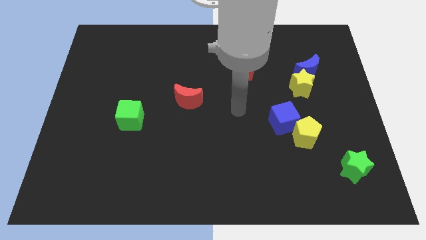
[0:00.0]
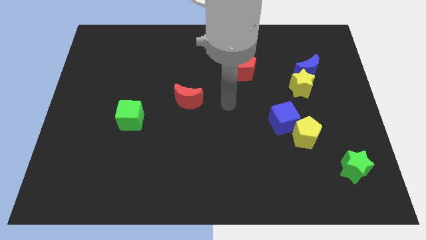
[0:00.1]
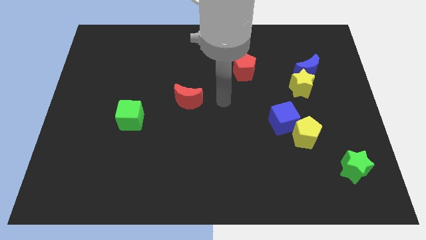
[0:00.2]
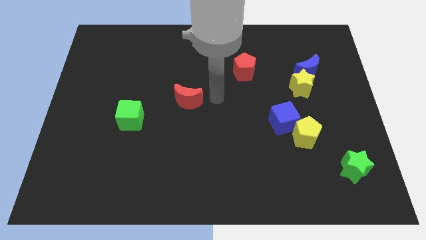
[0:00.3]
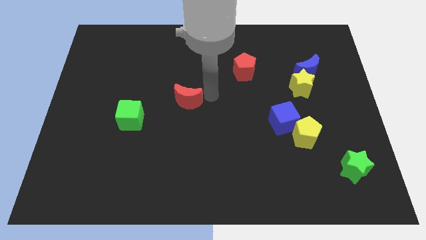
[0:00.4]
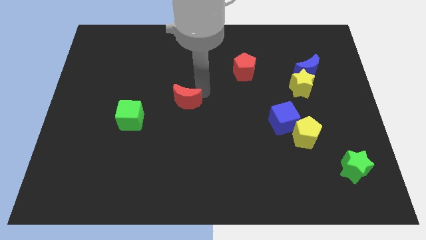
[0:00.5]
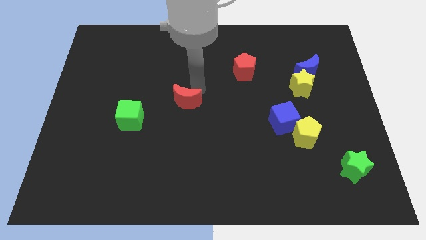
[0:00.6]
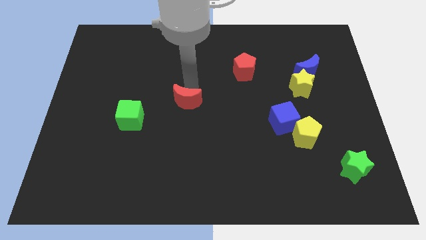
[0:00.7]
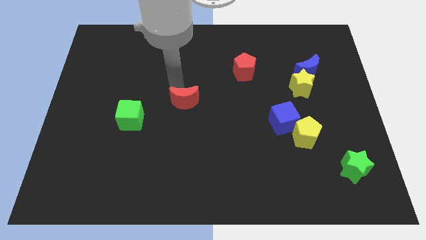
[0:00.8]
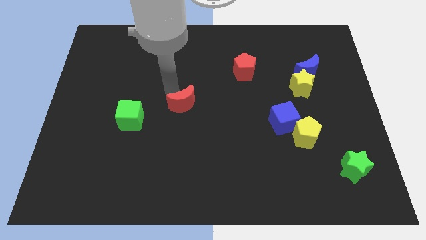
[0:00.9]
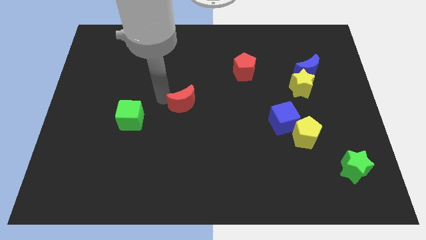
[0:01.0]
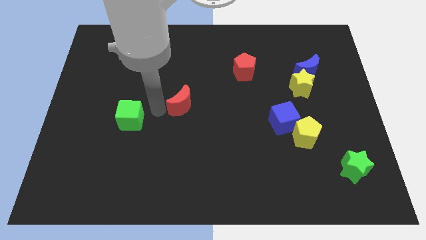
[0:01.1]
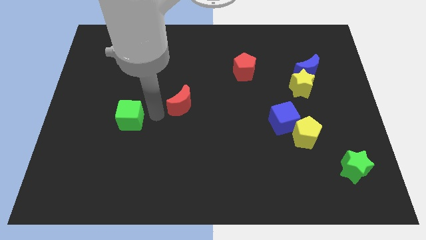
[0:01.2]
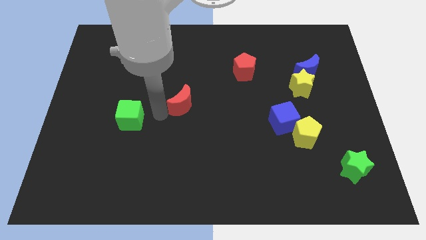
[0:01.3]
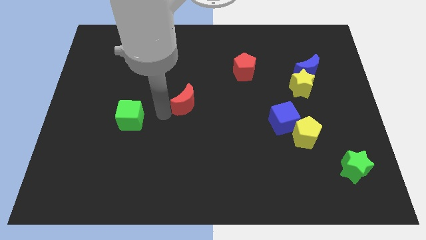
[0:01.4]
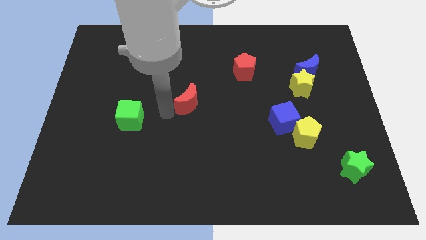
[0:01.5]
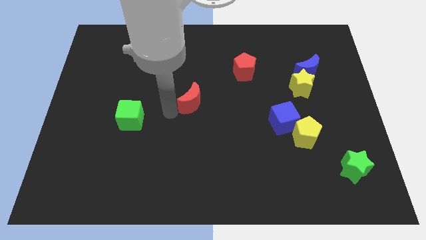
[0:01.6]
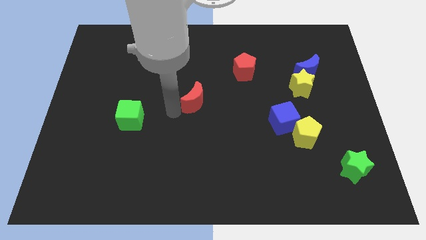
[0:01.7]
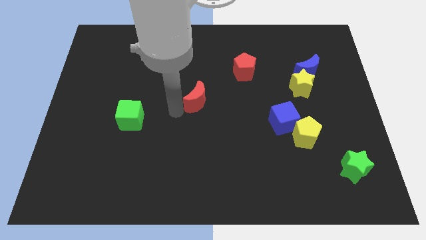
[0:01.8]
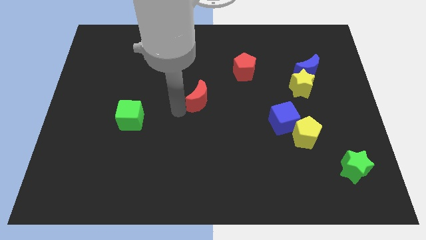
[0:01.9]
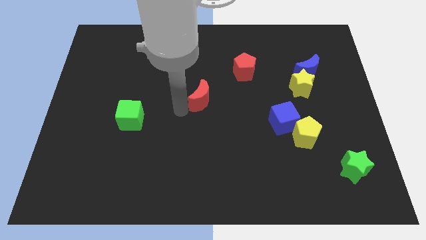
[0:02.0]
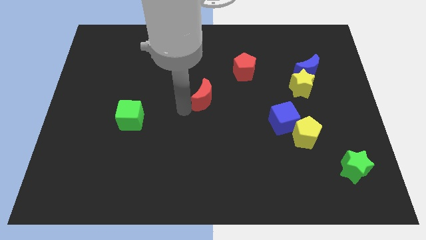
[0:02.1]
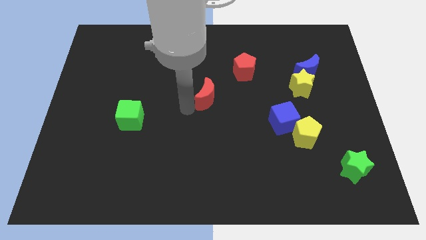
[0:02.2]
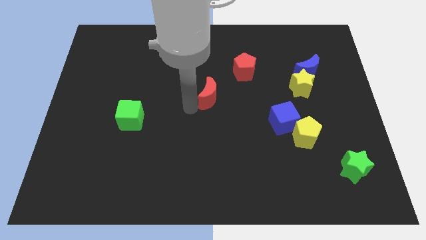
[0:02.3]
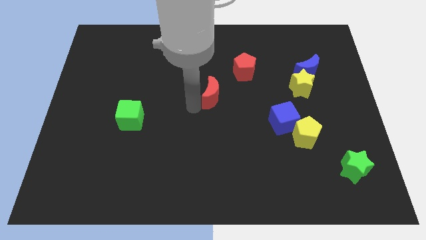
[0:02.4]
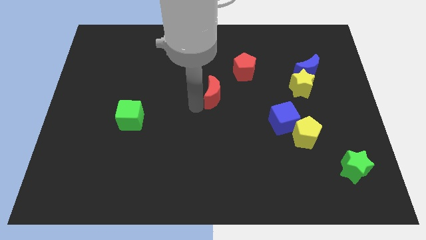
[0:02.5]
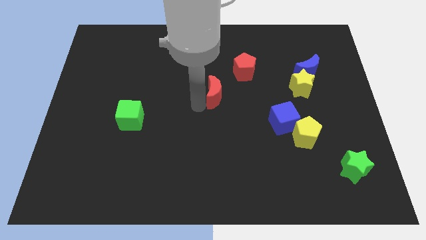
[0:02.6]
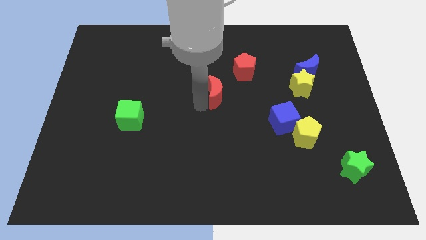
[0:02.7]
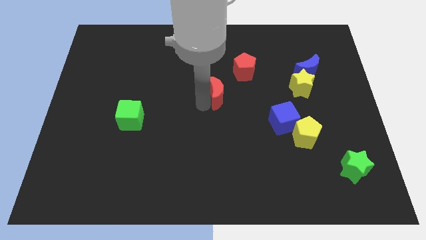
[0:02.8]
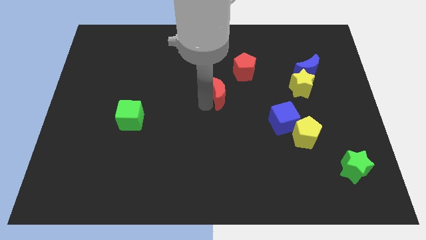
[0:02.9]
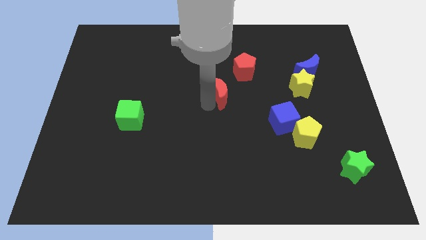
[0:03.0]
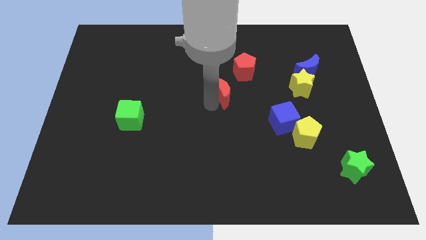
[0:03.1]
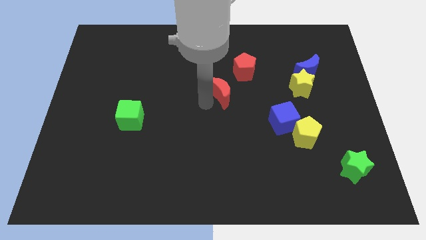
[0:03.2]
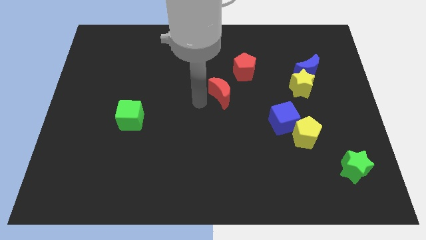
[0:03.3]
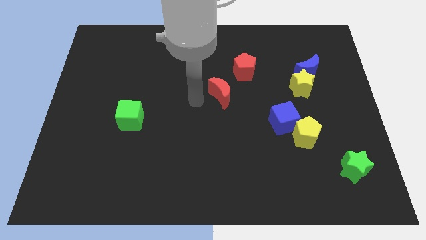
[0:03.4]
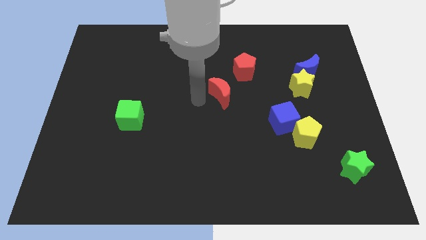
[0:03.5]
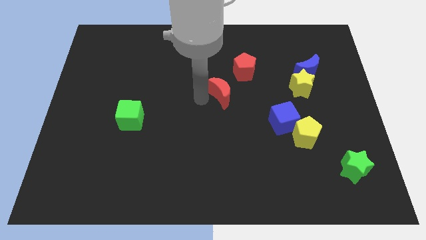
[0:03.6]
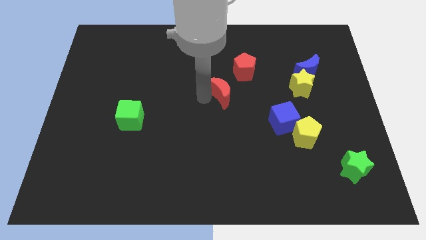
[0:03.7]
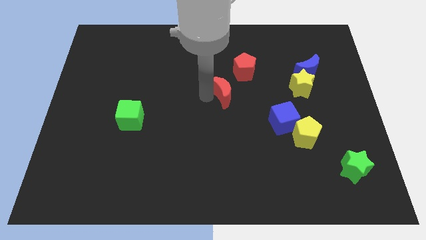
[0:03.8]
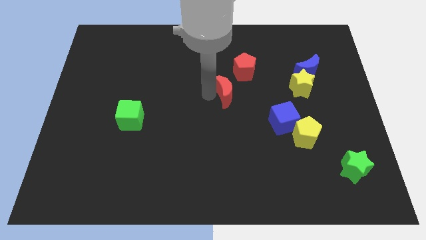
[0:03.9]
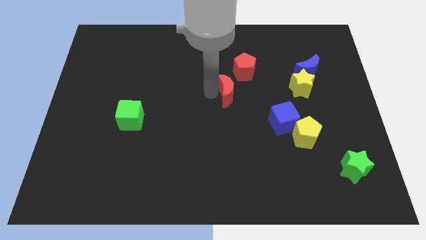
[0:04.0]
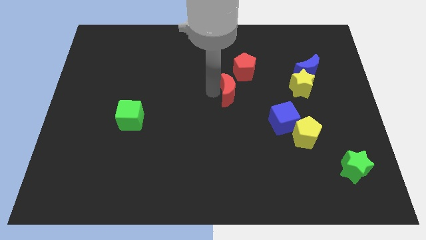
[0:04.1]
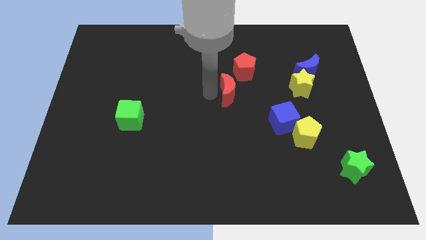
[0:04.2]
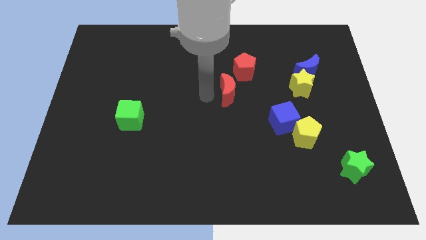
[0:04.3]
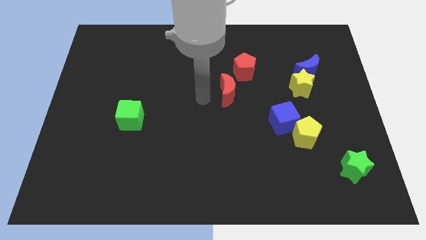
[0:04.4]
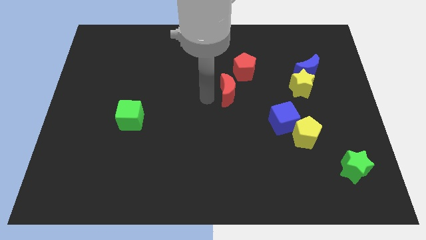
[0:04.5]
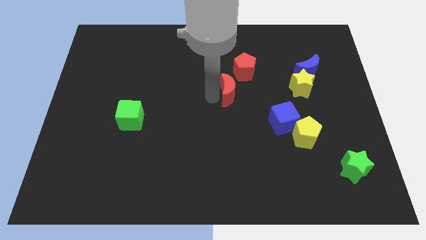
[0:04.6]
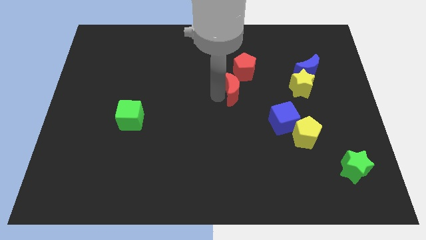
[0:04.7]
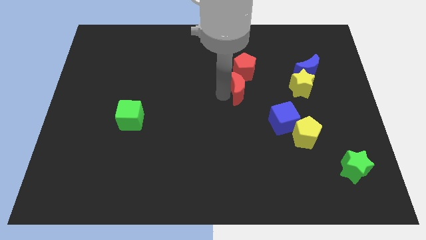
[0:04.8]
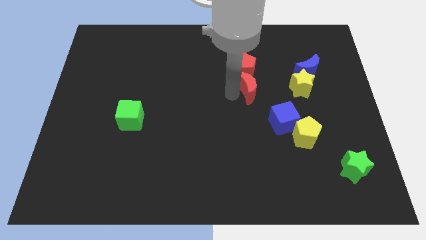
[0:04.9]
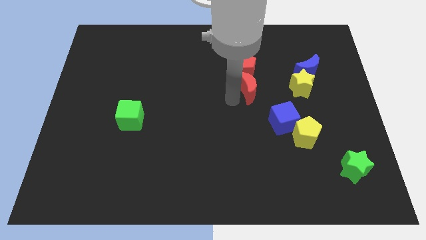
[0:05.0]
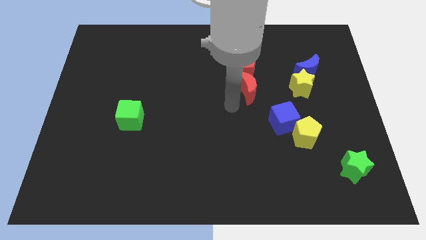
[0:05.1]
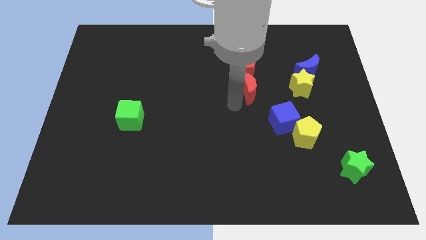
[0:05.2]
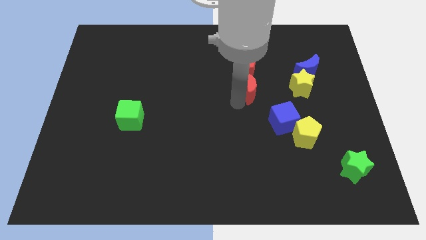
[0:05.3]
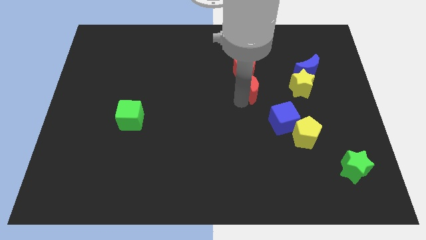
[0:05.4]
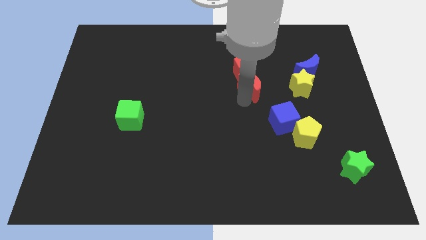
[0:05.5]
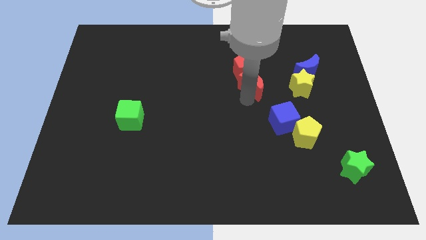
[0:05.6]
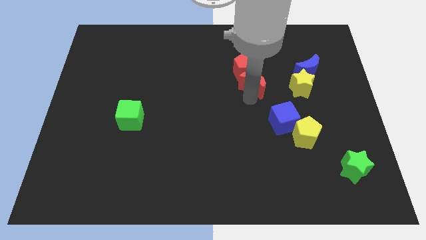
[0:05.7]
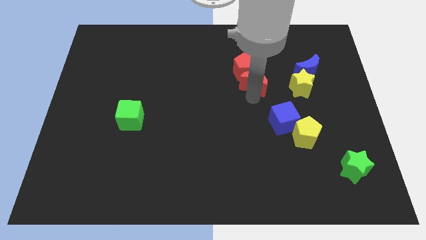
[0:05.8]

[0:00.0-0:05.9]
move the red moon to the left side of the blue moon

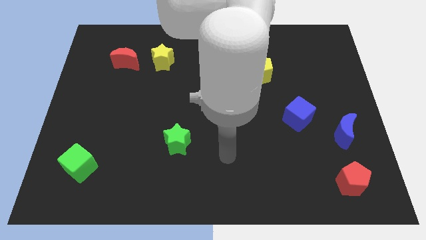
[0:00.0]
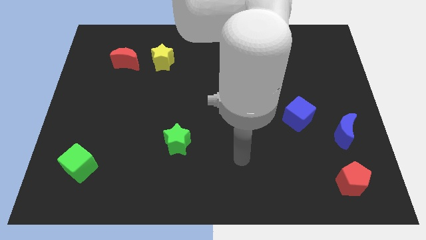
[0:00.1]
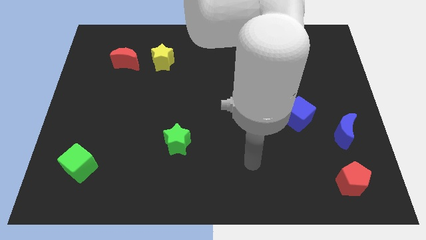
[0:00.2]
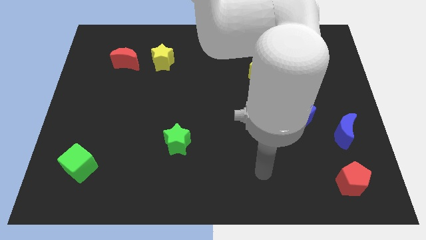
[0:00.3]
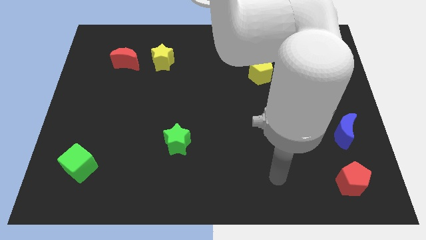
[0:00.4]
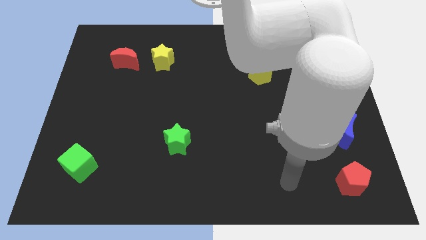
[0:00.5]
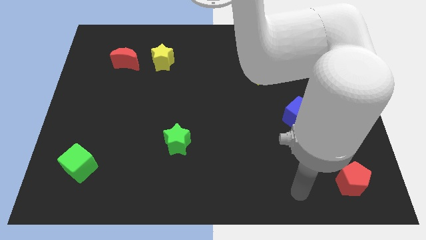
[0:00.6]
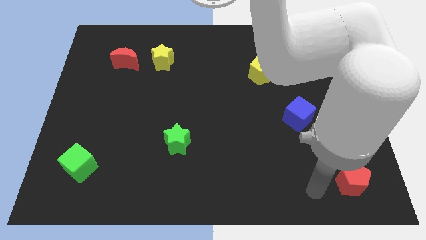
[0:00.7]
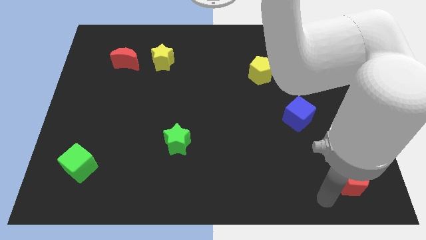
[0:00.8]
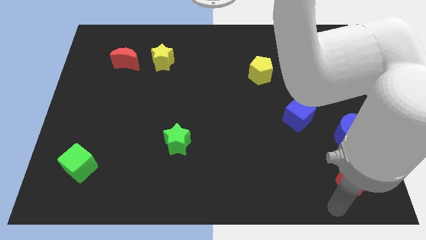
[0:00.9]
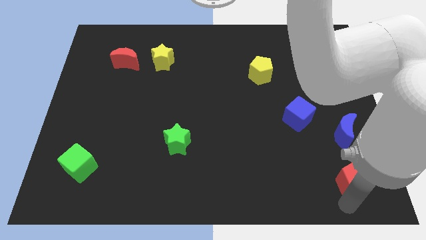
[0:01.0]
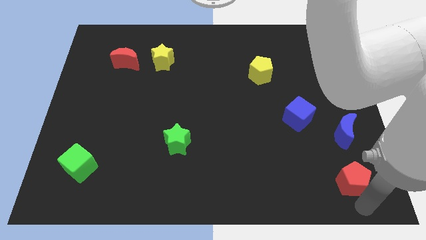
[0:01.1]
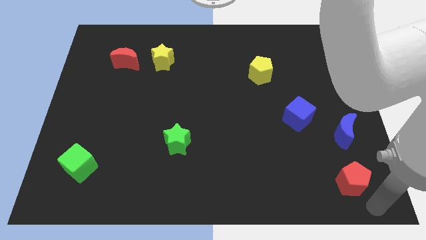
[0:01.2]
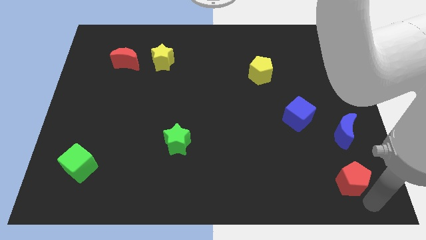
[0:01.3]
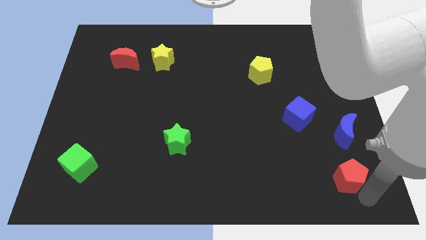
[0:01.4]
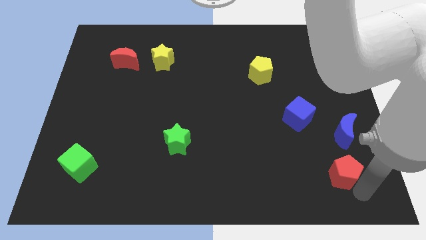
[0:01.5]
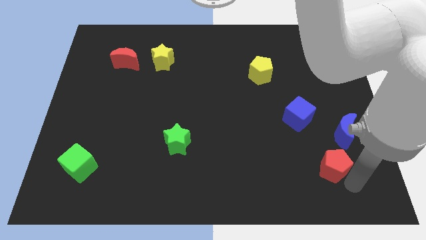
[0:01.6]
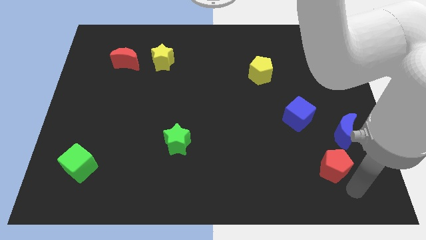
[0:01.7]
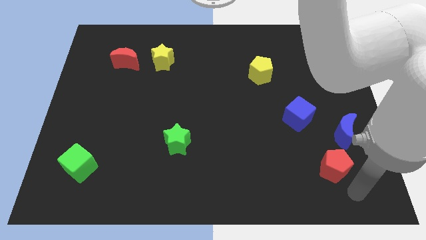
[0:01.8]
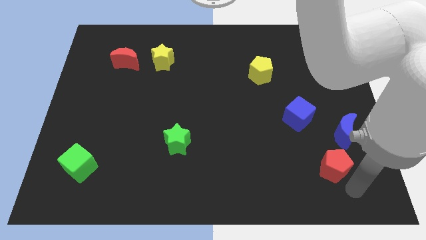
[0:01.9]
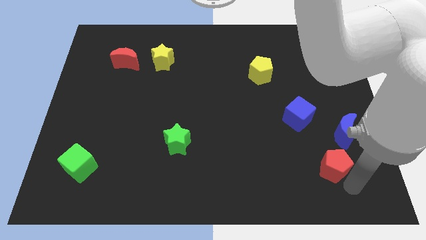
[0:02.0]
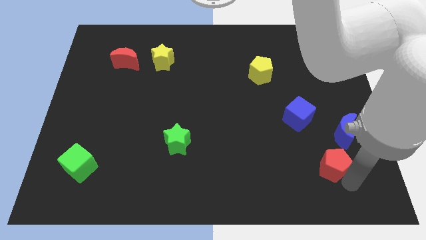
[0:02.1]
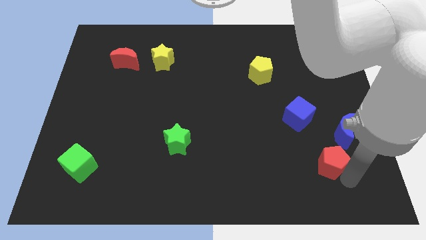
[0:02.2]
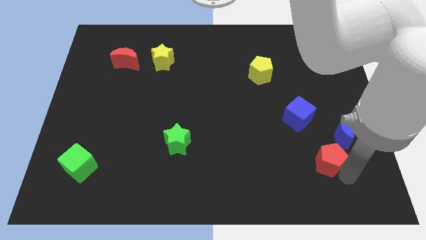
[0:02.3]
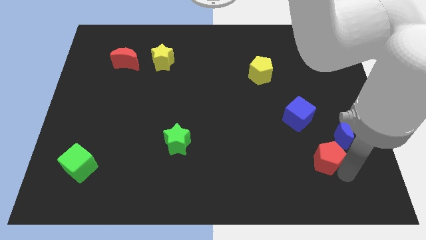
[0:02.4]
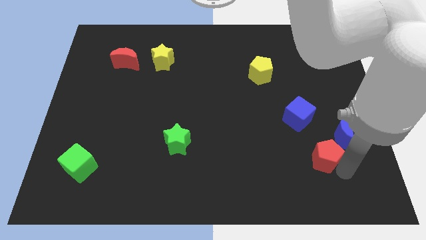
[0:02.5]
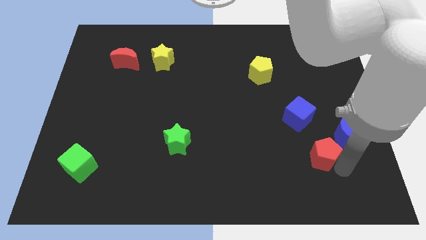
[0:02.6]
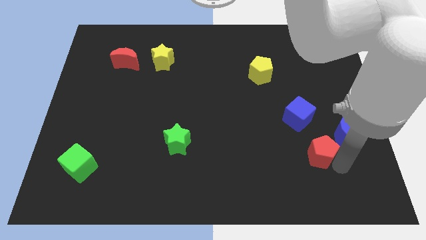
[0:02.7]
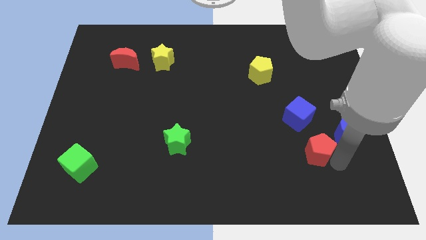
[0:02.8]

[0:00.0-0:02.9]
put the red pentagon to the left of the blue moon
